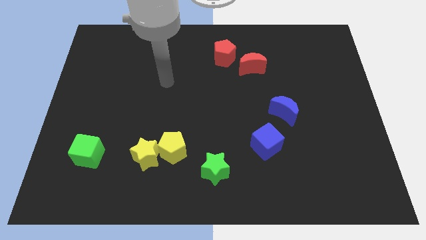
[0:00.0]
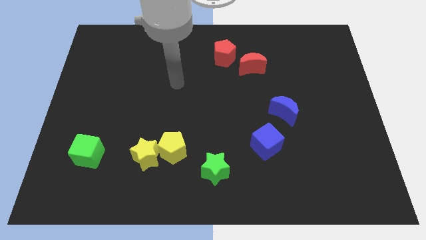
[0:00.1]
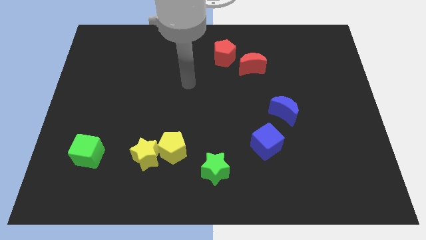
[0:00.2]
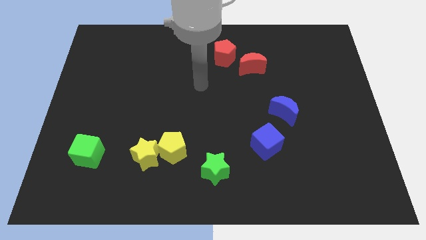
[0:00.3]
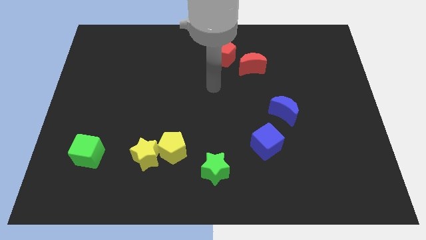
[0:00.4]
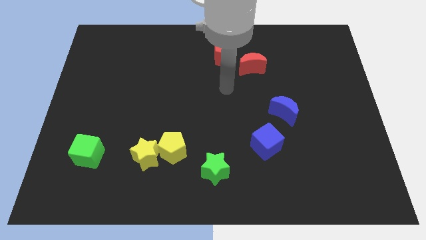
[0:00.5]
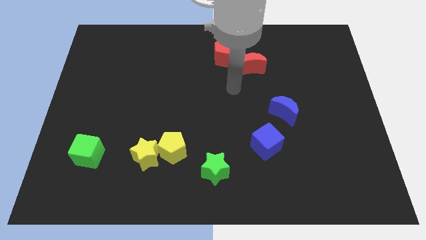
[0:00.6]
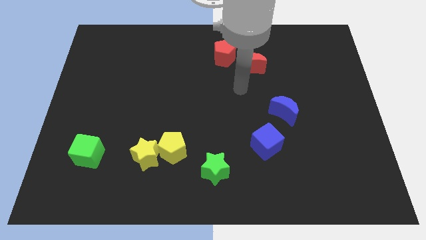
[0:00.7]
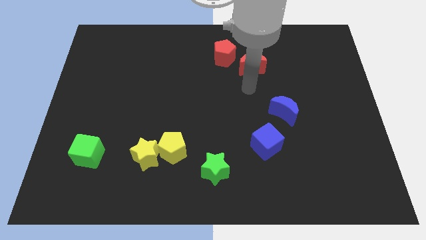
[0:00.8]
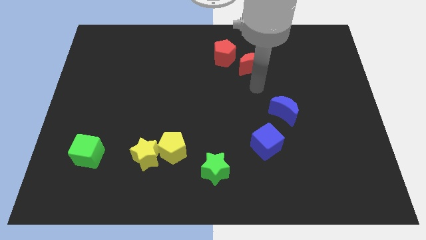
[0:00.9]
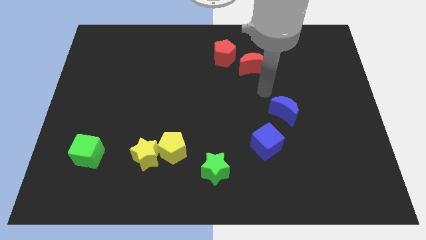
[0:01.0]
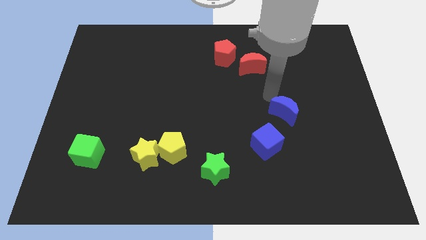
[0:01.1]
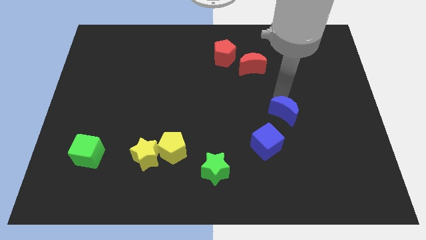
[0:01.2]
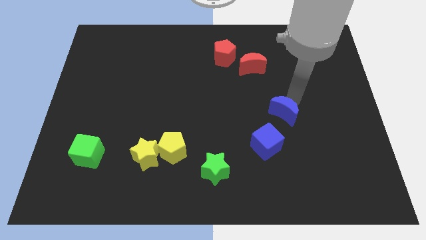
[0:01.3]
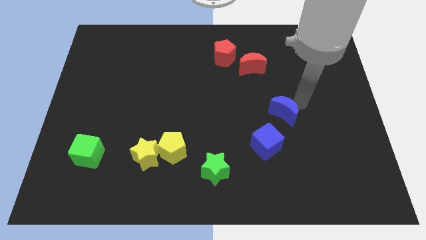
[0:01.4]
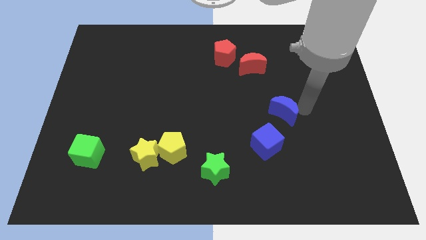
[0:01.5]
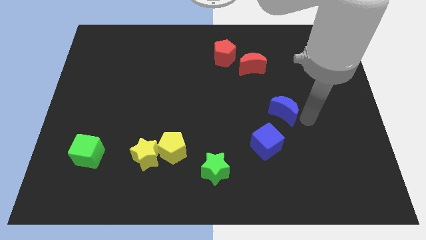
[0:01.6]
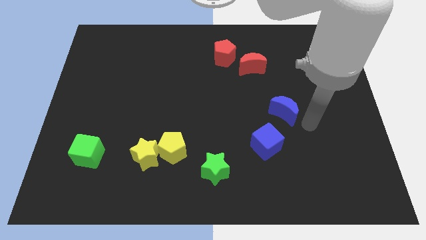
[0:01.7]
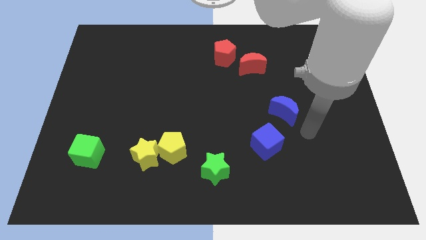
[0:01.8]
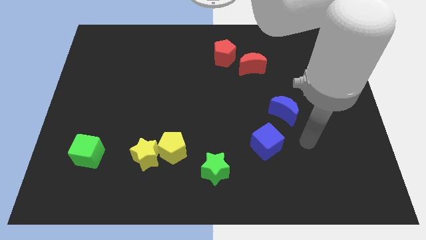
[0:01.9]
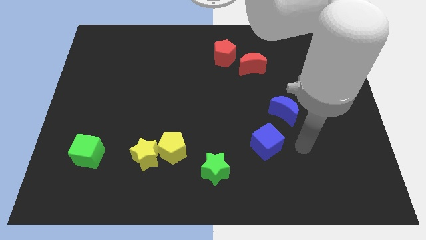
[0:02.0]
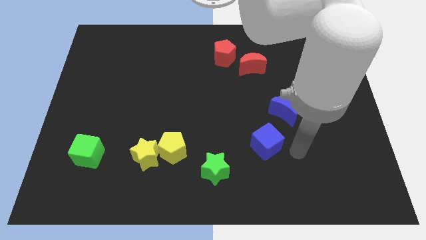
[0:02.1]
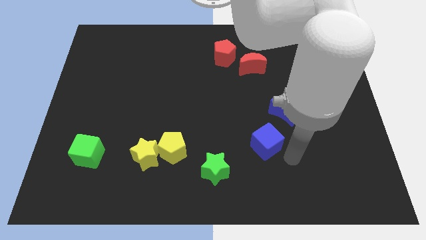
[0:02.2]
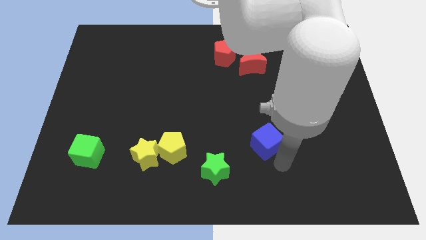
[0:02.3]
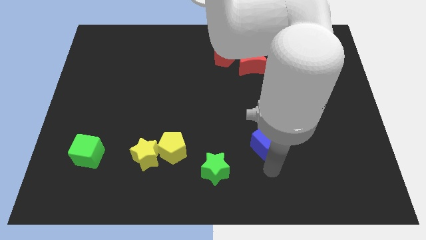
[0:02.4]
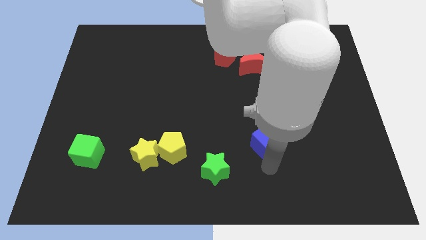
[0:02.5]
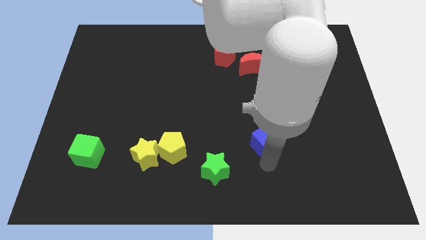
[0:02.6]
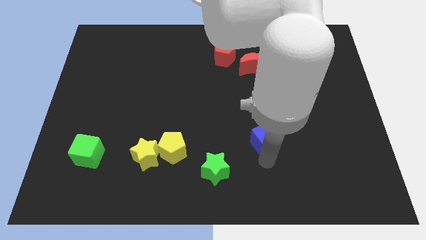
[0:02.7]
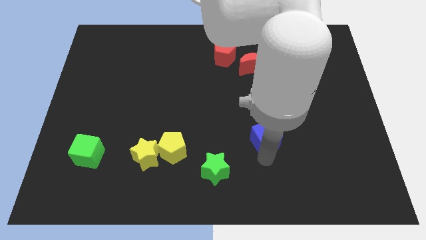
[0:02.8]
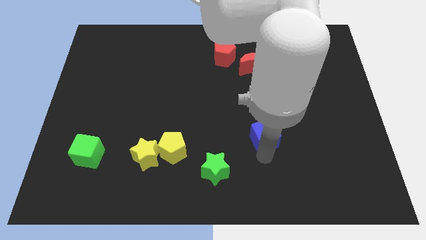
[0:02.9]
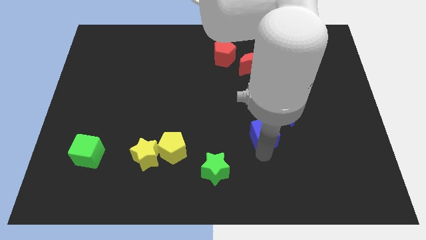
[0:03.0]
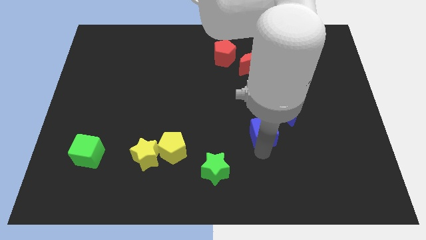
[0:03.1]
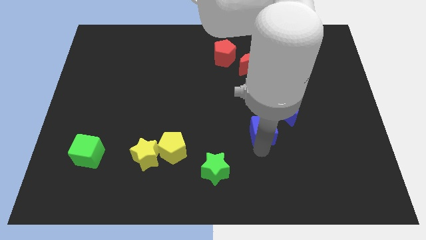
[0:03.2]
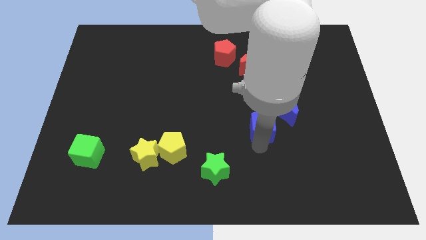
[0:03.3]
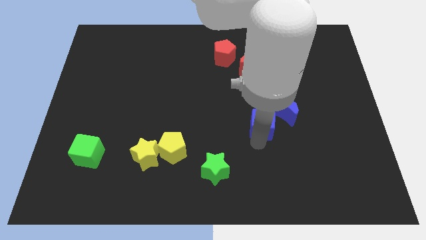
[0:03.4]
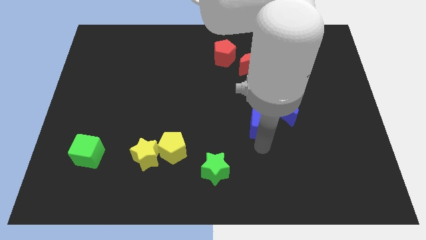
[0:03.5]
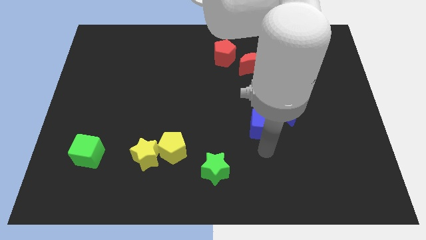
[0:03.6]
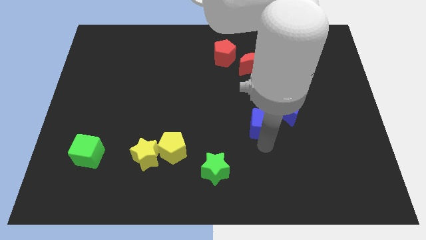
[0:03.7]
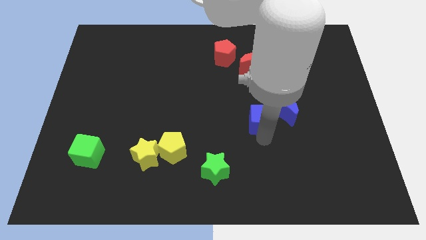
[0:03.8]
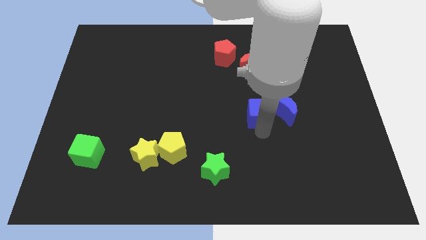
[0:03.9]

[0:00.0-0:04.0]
slightly push the blue cube up

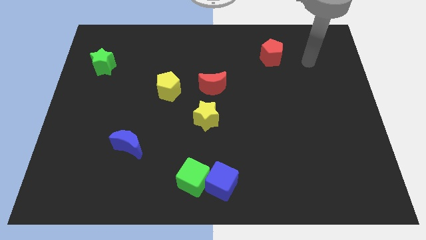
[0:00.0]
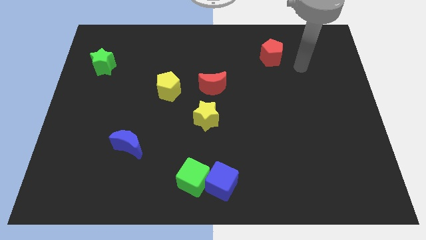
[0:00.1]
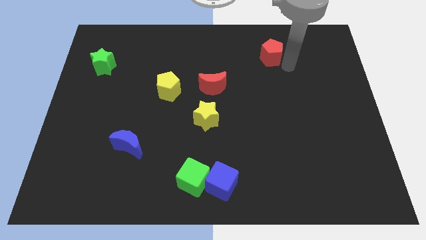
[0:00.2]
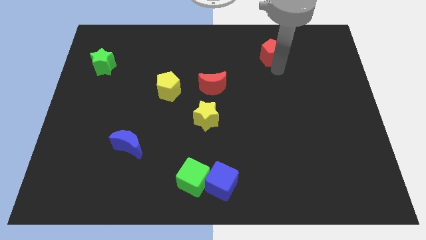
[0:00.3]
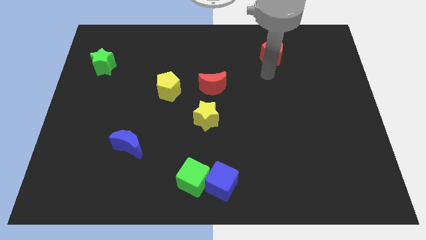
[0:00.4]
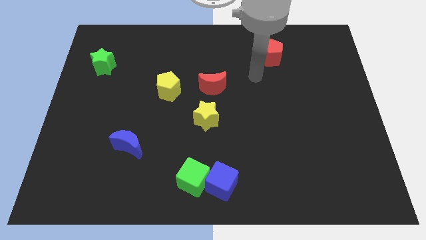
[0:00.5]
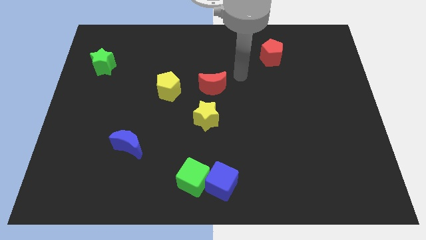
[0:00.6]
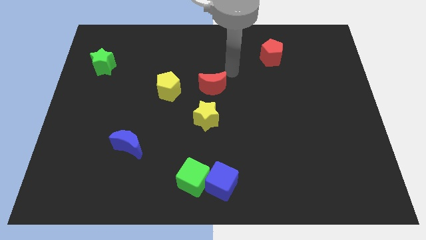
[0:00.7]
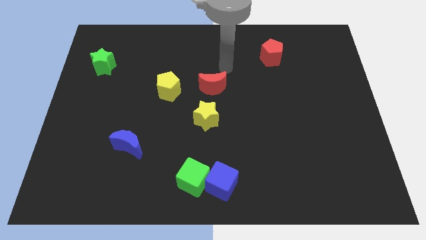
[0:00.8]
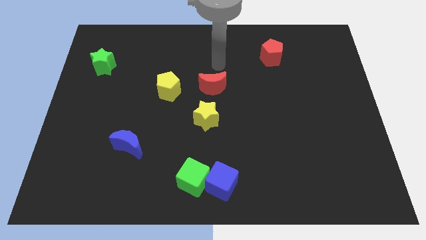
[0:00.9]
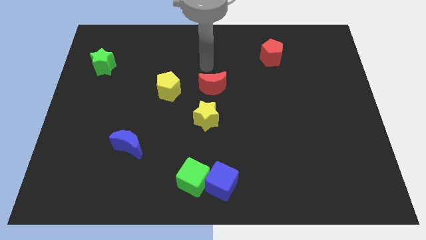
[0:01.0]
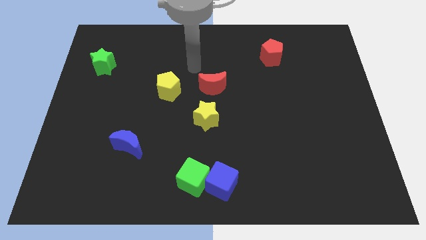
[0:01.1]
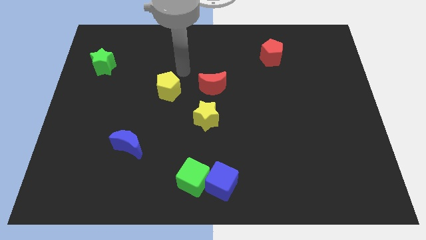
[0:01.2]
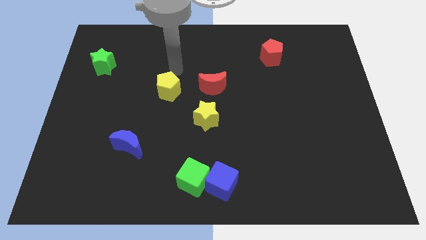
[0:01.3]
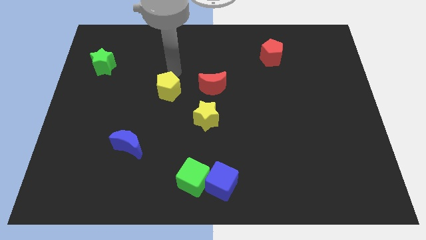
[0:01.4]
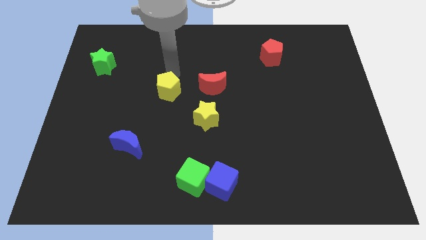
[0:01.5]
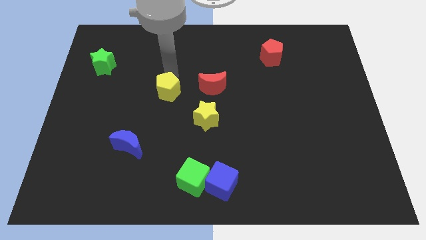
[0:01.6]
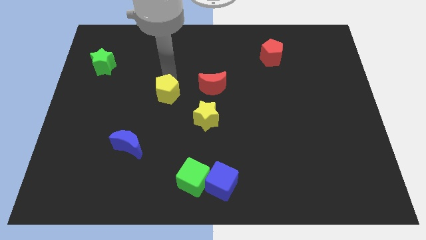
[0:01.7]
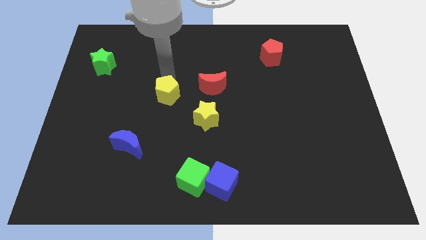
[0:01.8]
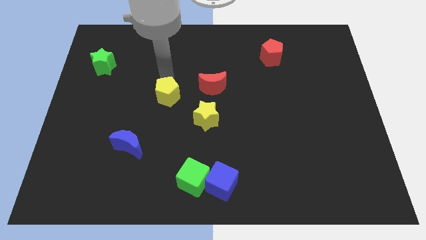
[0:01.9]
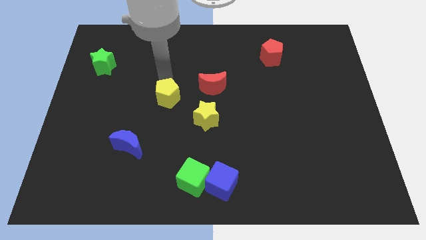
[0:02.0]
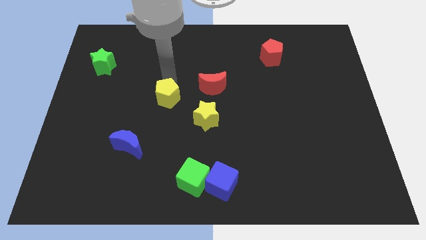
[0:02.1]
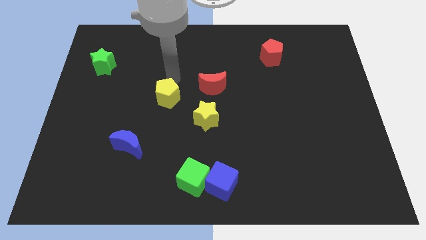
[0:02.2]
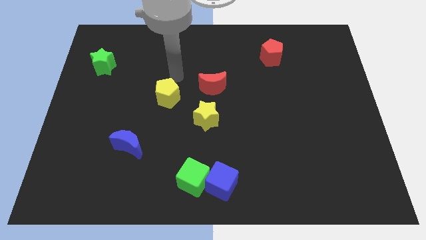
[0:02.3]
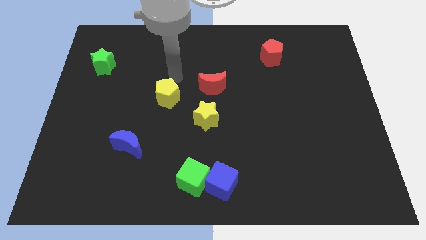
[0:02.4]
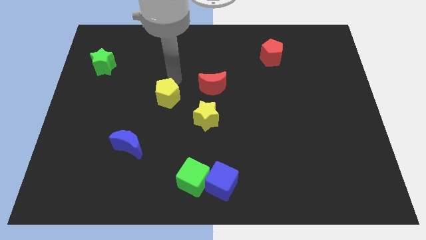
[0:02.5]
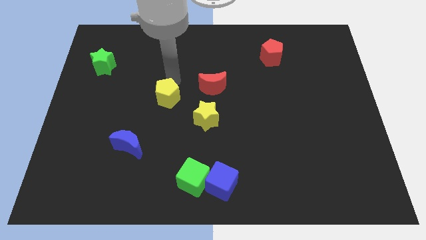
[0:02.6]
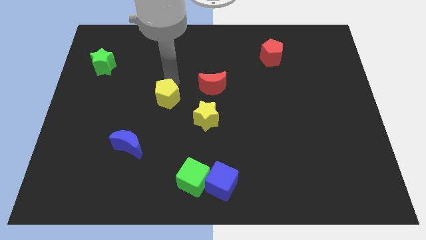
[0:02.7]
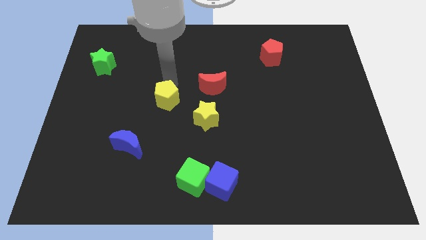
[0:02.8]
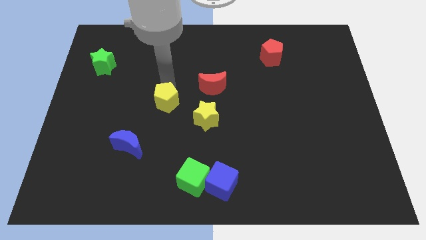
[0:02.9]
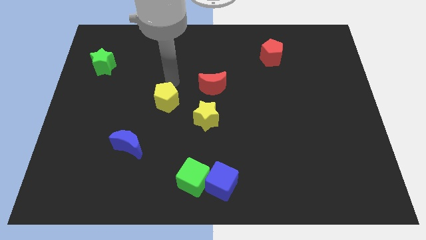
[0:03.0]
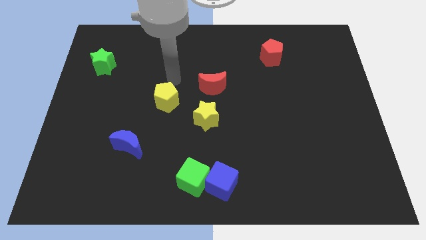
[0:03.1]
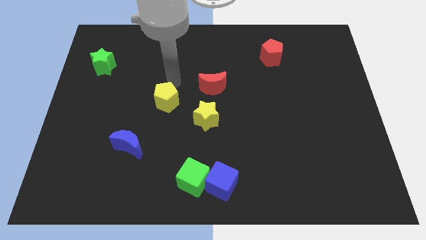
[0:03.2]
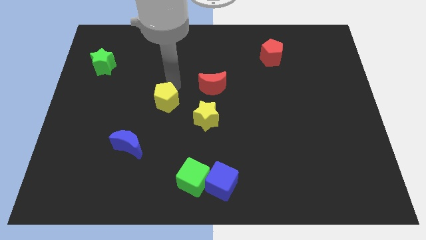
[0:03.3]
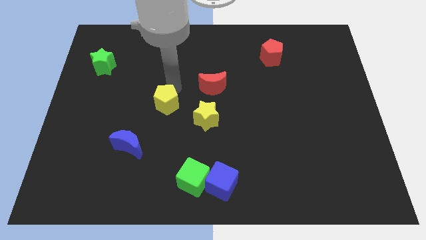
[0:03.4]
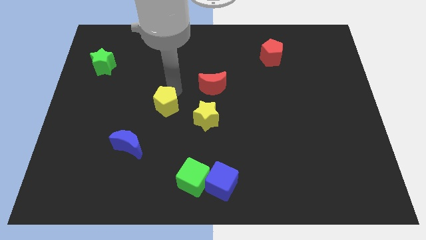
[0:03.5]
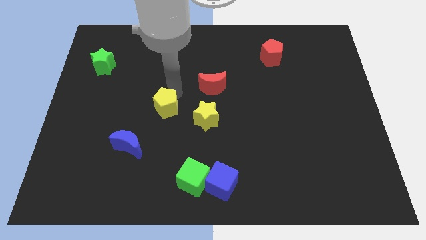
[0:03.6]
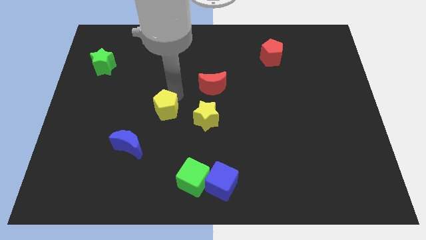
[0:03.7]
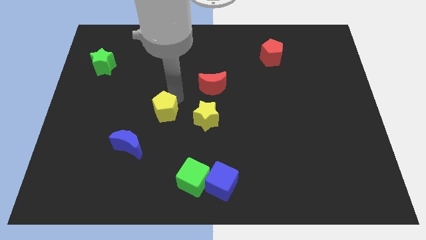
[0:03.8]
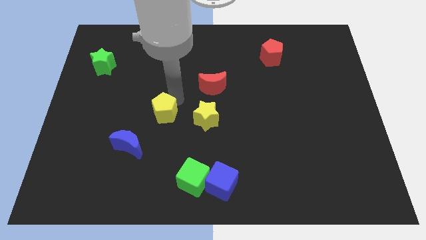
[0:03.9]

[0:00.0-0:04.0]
slide the yellow pentagon somewhat downwards
